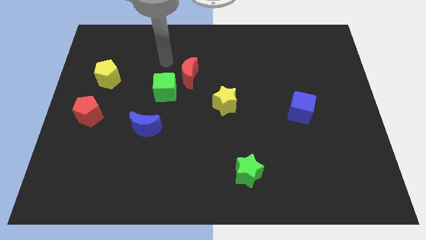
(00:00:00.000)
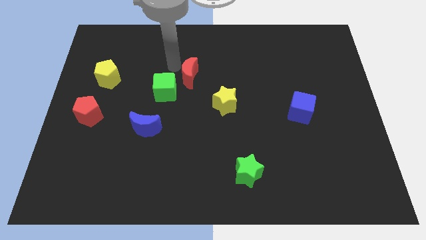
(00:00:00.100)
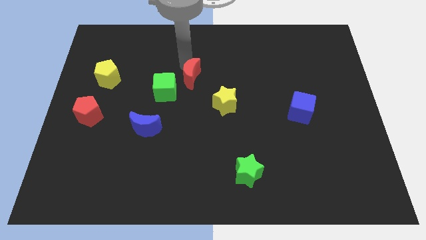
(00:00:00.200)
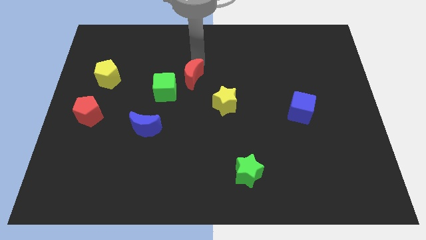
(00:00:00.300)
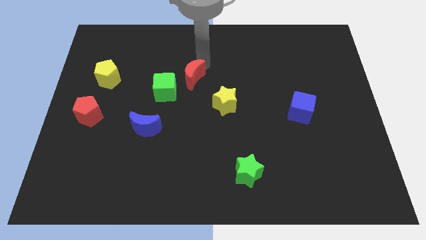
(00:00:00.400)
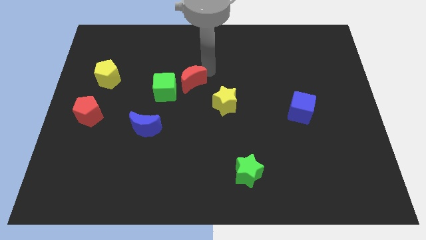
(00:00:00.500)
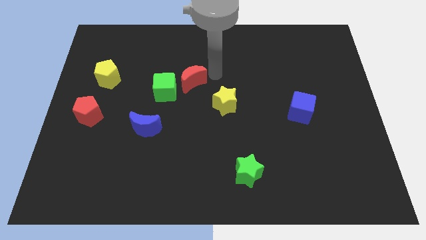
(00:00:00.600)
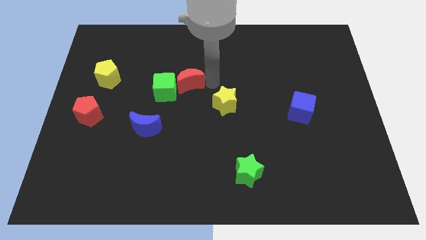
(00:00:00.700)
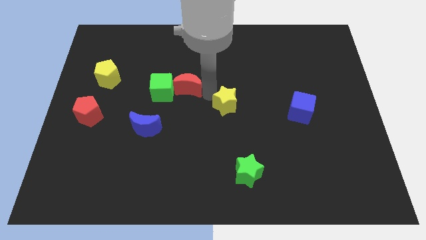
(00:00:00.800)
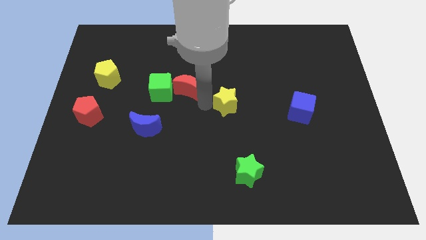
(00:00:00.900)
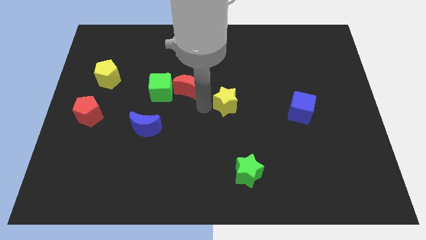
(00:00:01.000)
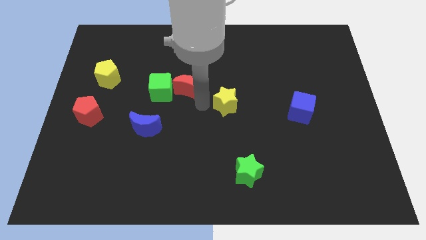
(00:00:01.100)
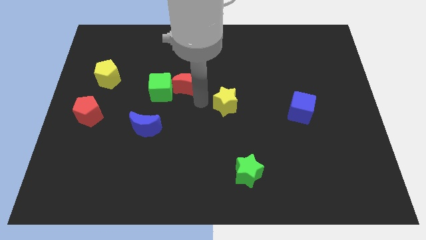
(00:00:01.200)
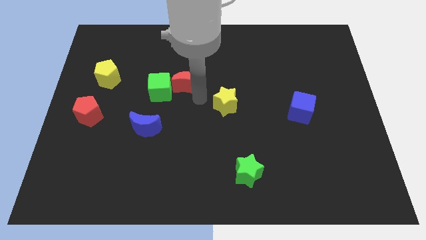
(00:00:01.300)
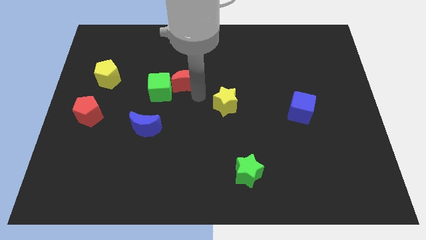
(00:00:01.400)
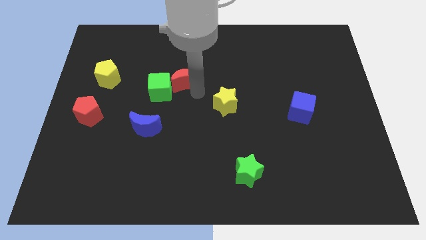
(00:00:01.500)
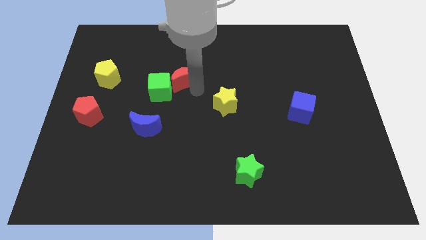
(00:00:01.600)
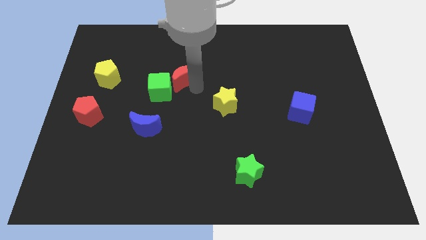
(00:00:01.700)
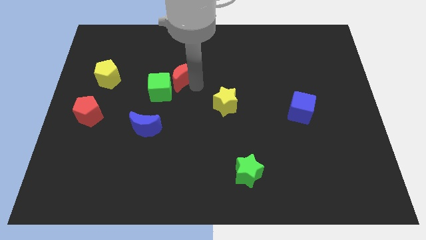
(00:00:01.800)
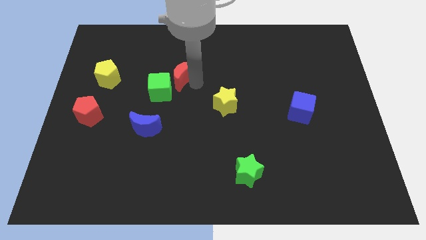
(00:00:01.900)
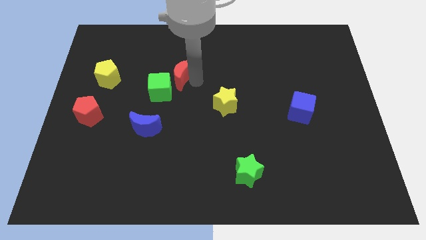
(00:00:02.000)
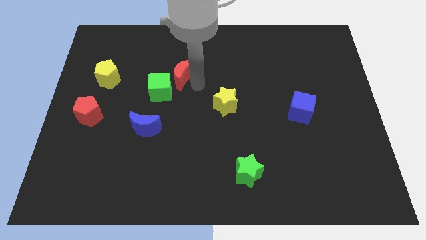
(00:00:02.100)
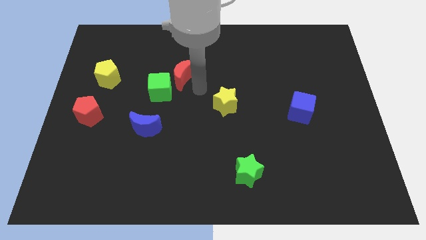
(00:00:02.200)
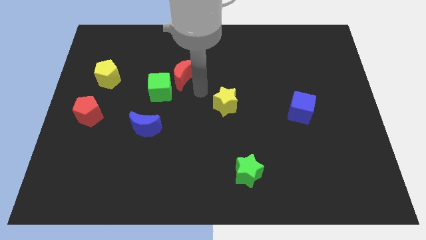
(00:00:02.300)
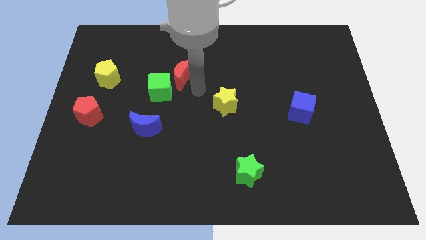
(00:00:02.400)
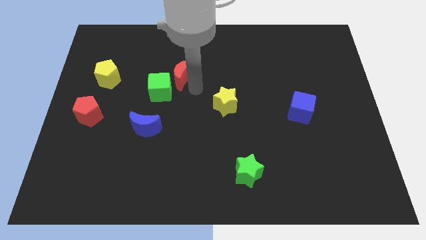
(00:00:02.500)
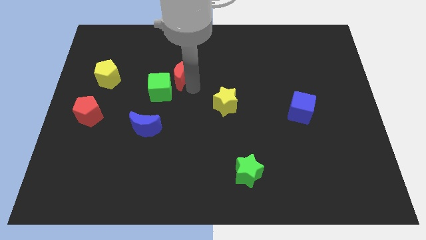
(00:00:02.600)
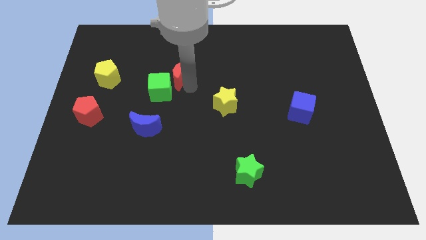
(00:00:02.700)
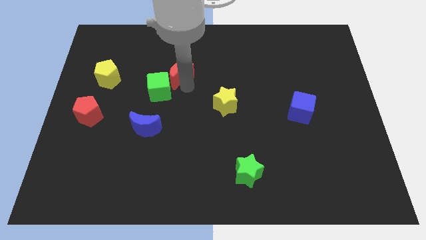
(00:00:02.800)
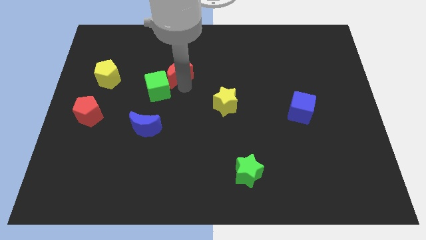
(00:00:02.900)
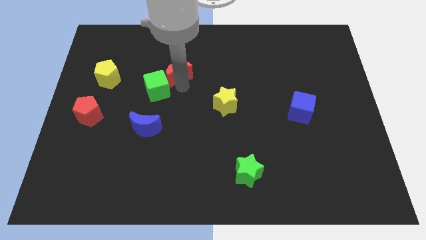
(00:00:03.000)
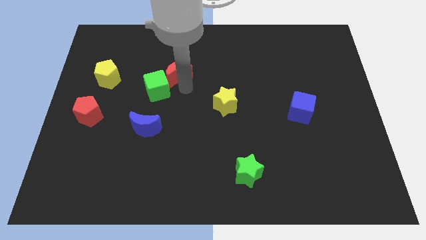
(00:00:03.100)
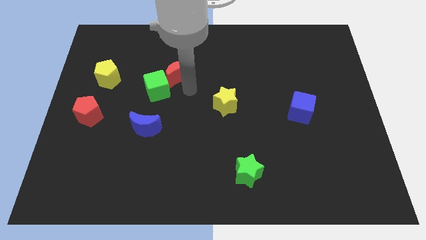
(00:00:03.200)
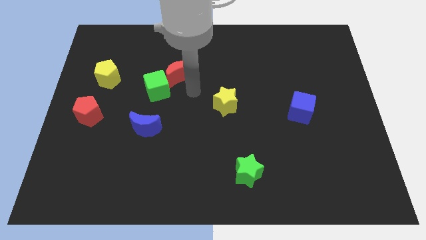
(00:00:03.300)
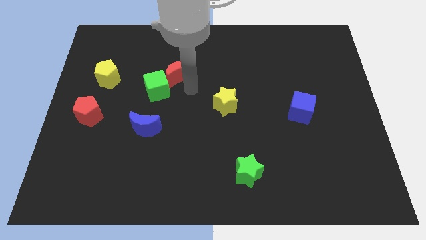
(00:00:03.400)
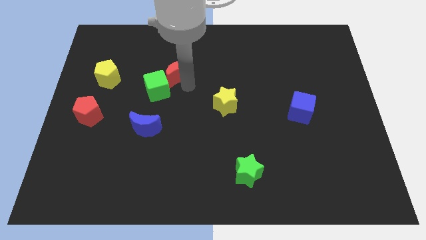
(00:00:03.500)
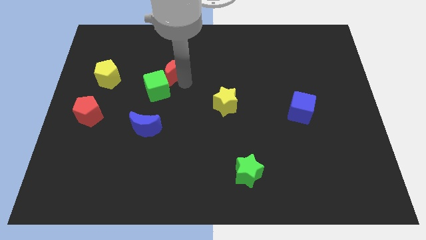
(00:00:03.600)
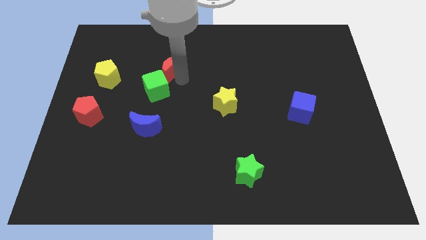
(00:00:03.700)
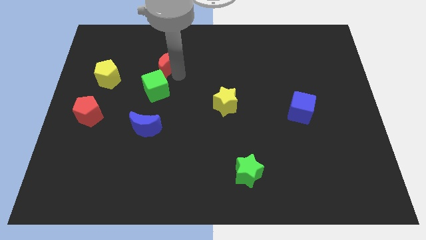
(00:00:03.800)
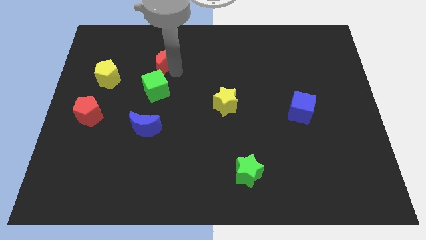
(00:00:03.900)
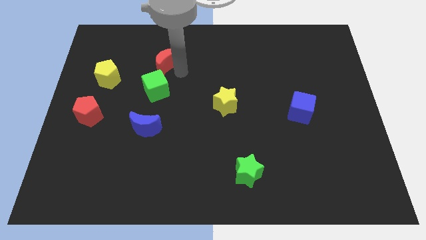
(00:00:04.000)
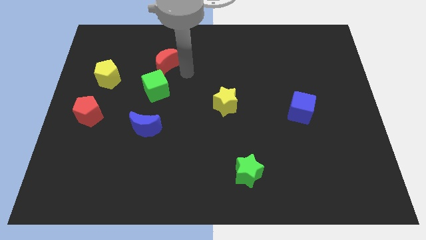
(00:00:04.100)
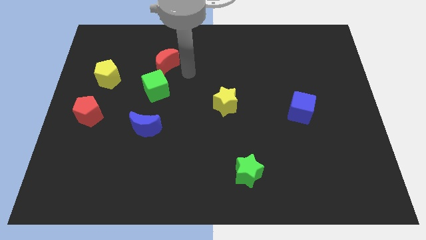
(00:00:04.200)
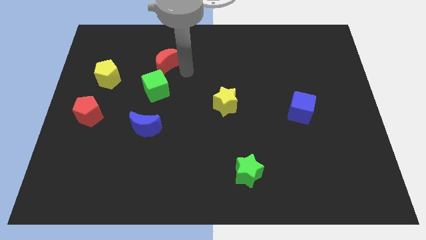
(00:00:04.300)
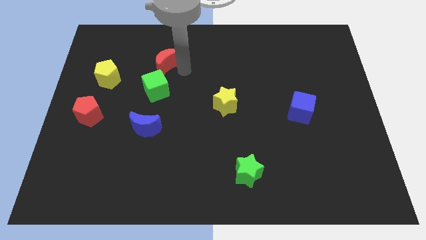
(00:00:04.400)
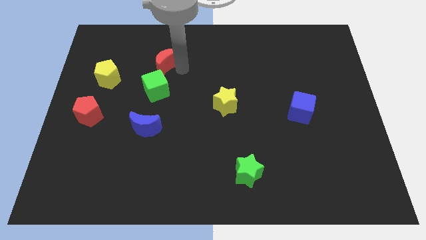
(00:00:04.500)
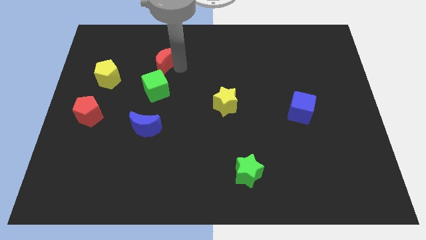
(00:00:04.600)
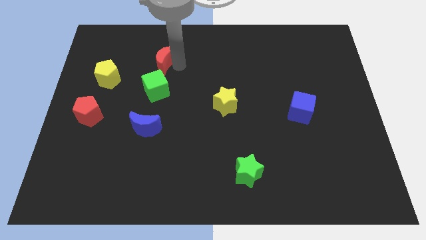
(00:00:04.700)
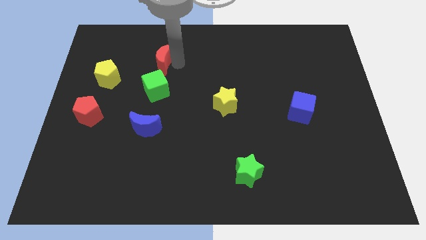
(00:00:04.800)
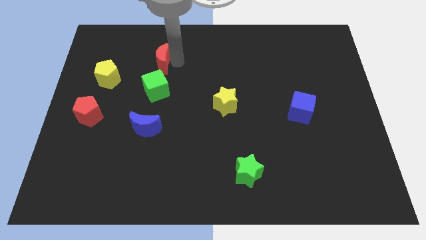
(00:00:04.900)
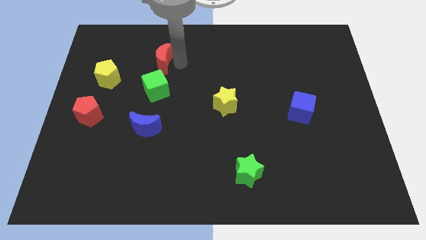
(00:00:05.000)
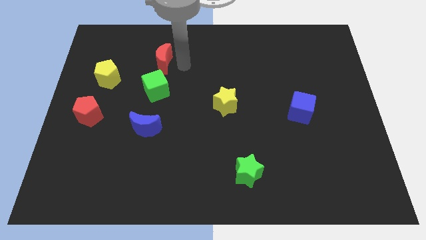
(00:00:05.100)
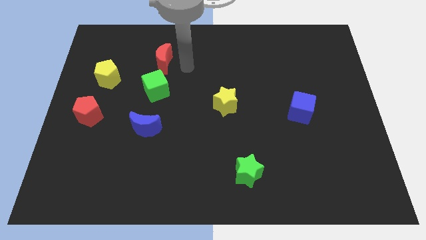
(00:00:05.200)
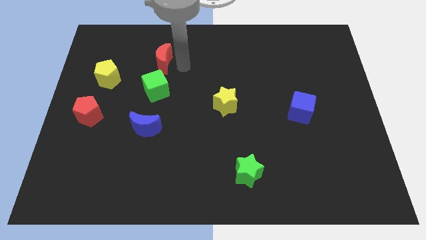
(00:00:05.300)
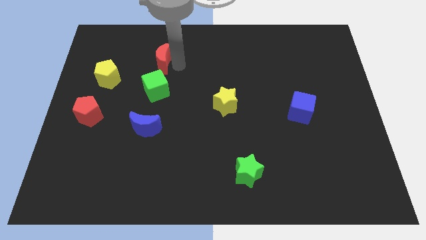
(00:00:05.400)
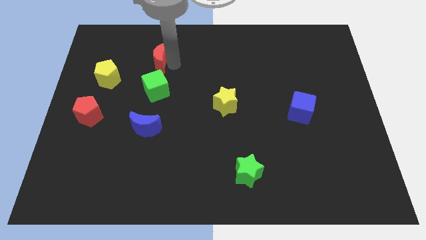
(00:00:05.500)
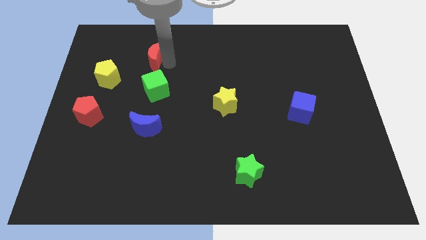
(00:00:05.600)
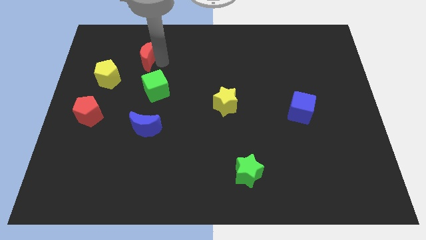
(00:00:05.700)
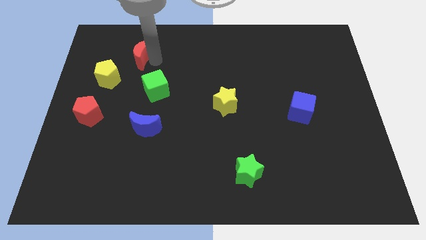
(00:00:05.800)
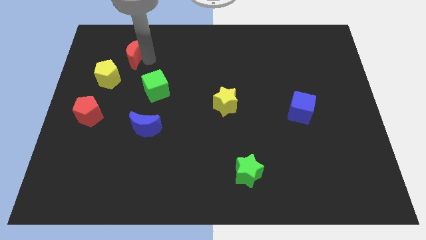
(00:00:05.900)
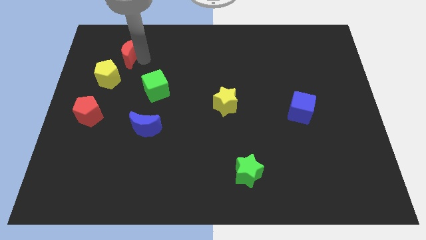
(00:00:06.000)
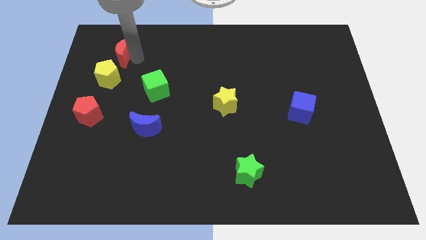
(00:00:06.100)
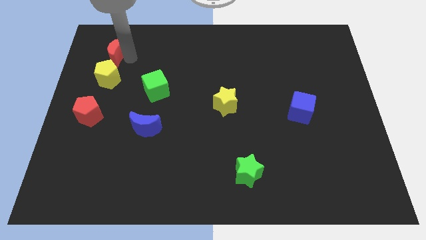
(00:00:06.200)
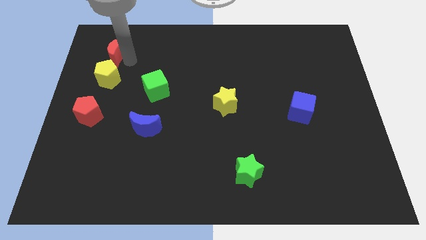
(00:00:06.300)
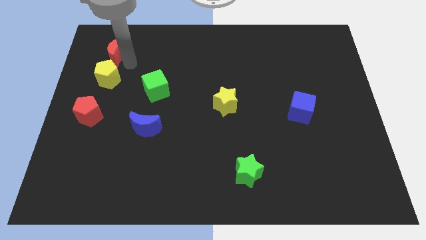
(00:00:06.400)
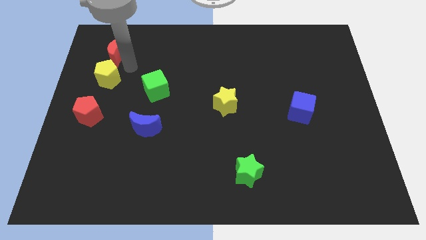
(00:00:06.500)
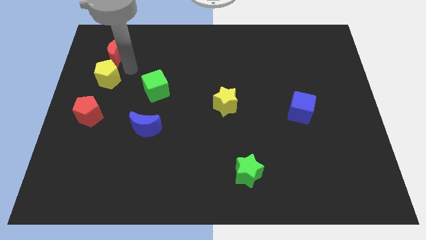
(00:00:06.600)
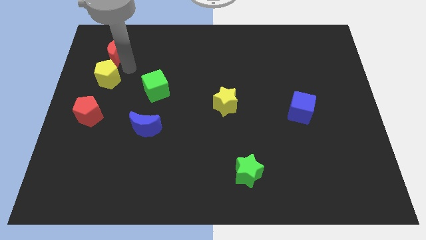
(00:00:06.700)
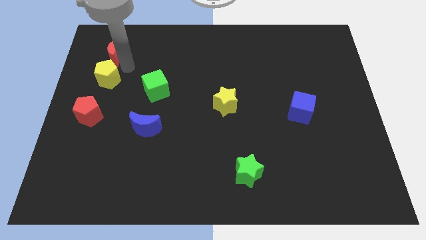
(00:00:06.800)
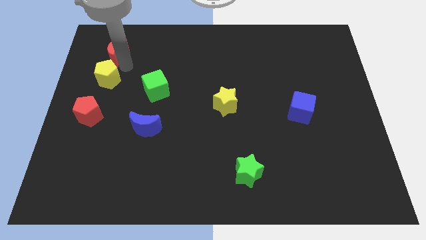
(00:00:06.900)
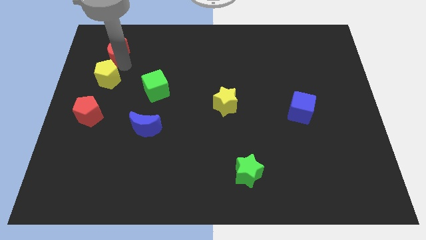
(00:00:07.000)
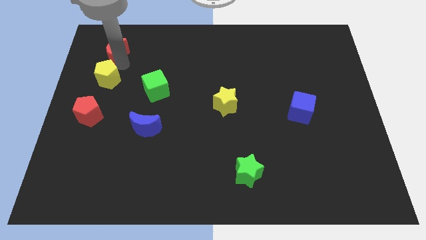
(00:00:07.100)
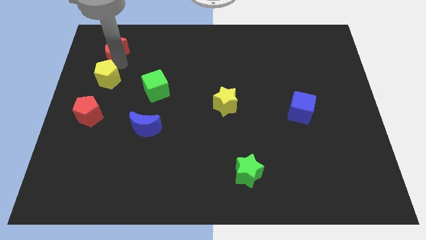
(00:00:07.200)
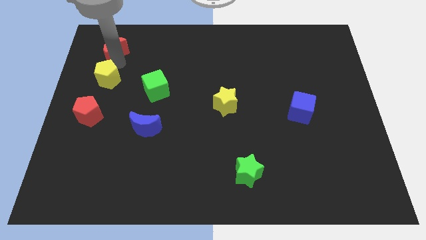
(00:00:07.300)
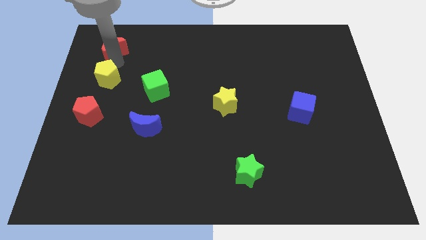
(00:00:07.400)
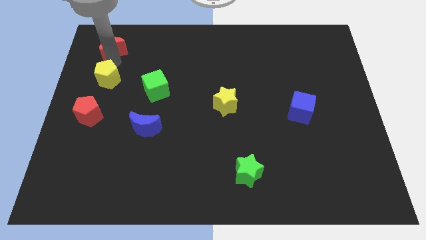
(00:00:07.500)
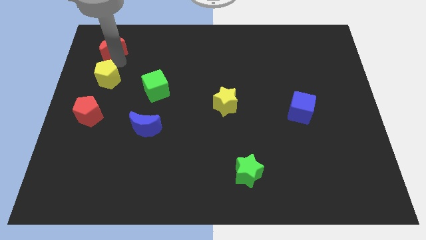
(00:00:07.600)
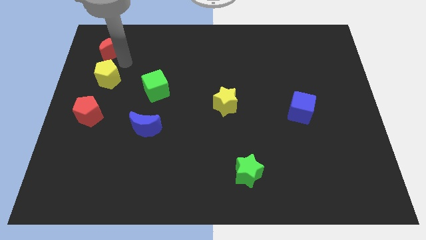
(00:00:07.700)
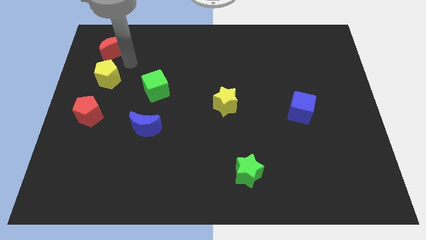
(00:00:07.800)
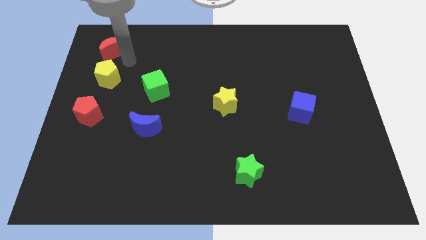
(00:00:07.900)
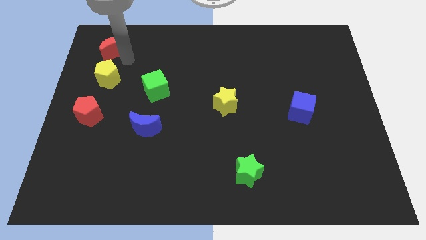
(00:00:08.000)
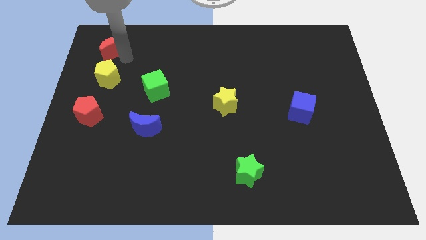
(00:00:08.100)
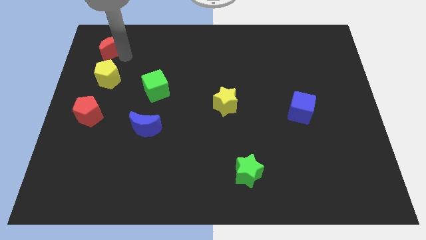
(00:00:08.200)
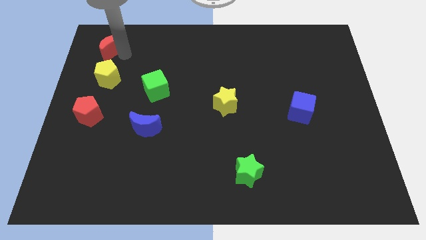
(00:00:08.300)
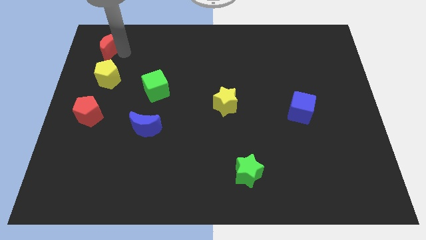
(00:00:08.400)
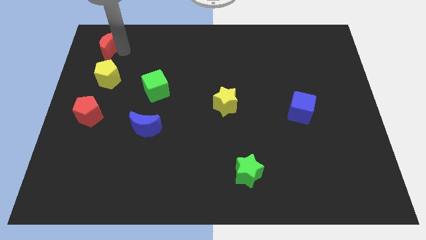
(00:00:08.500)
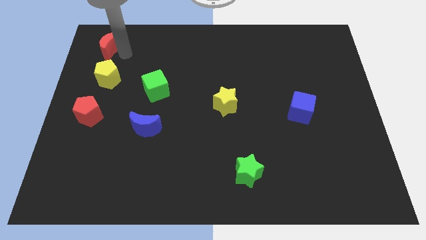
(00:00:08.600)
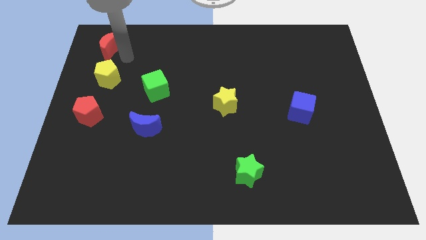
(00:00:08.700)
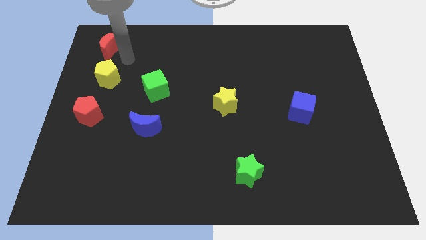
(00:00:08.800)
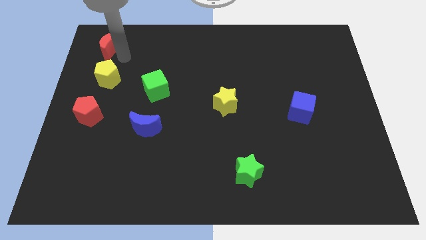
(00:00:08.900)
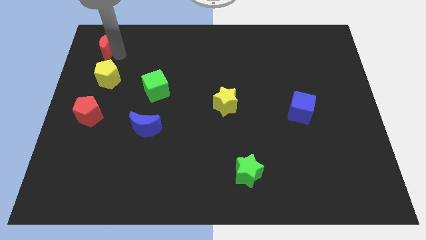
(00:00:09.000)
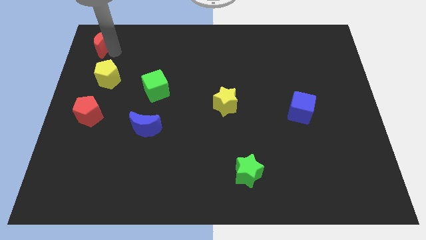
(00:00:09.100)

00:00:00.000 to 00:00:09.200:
slide the red moon to the top left of the board
